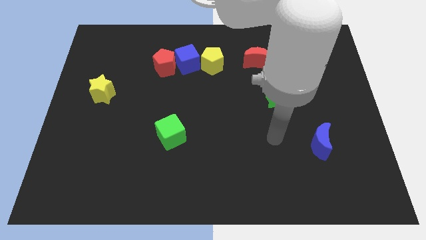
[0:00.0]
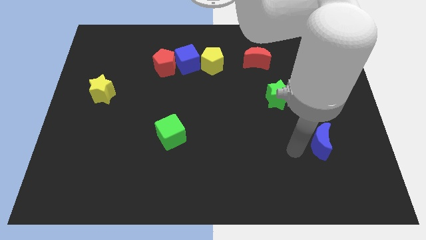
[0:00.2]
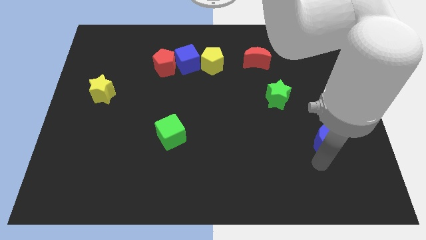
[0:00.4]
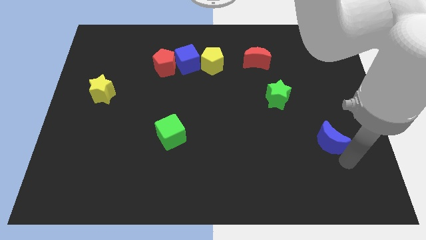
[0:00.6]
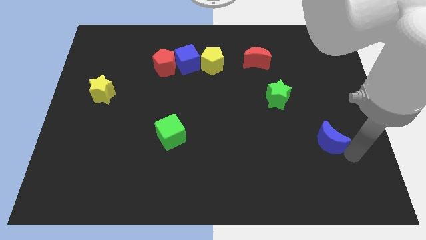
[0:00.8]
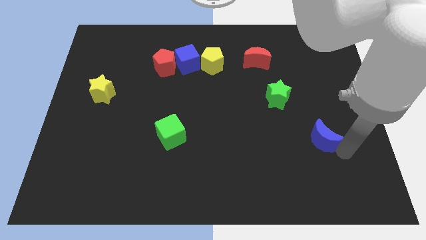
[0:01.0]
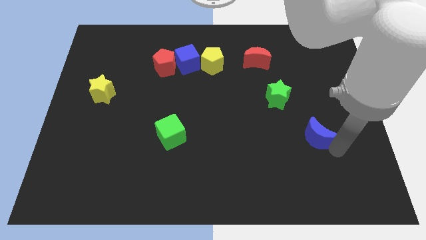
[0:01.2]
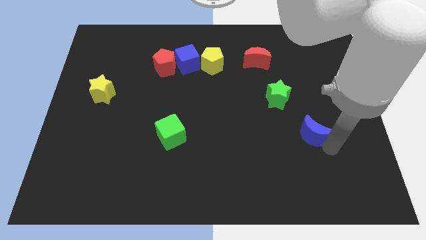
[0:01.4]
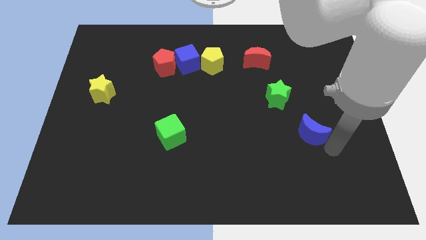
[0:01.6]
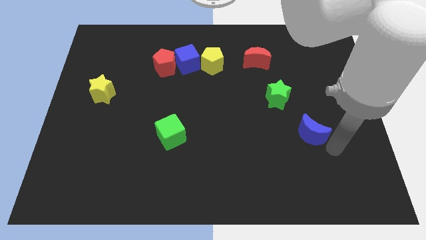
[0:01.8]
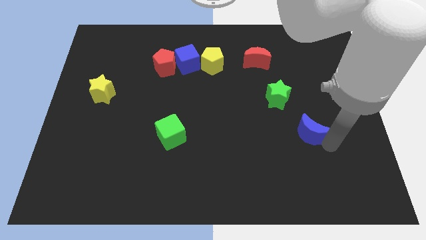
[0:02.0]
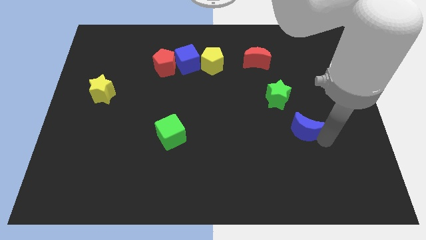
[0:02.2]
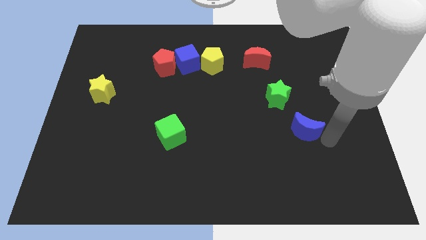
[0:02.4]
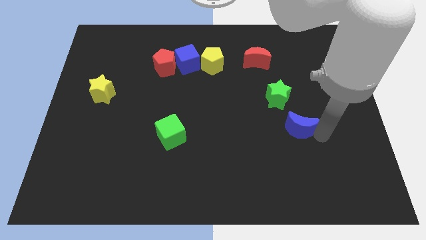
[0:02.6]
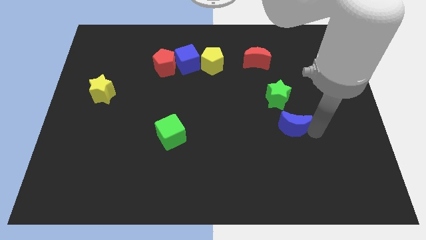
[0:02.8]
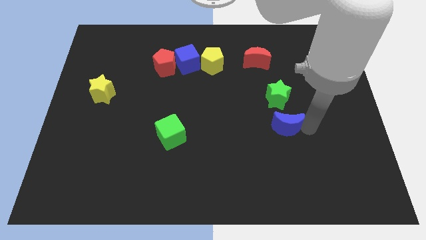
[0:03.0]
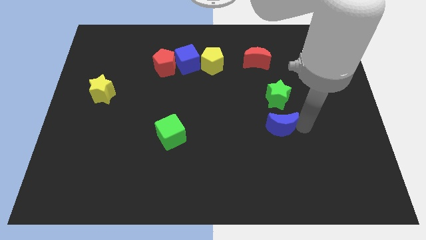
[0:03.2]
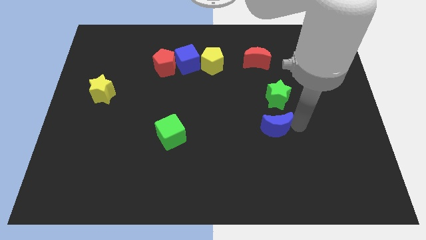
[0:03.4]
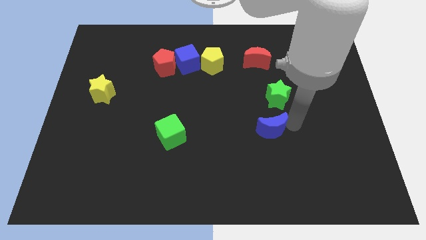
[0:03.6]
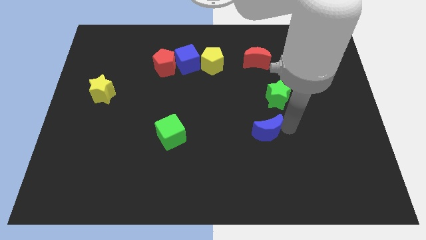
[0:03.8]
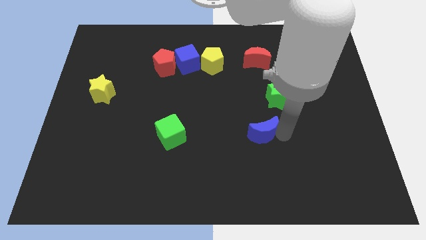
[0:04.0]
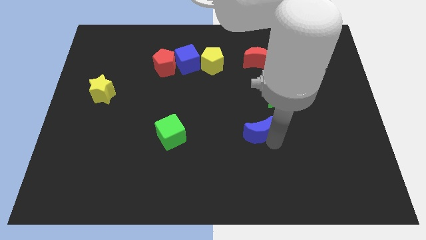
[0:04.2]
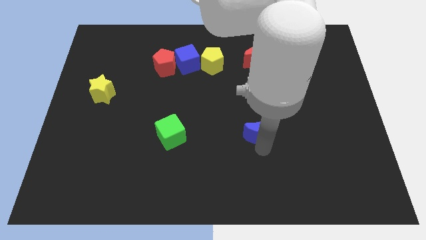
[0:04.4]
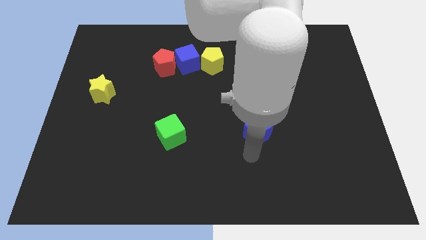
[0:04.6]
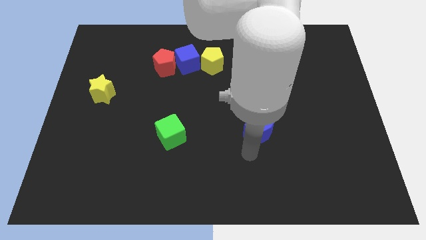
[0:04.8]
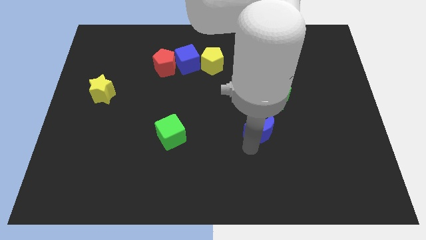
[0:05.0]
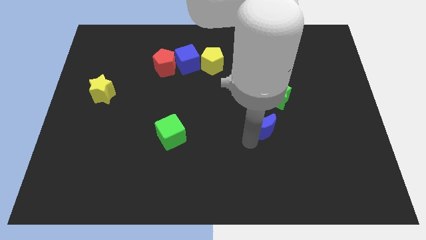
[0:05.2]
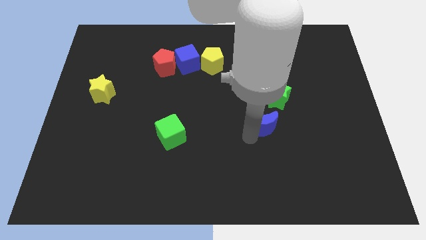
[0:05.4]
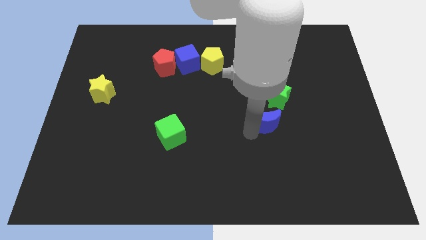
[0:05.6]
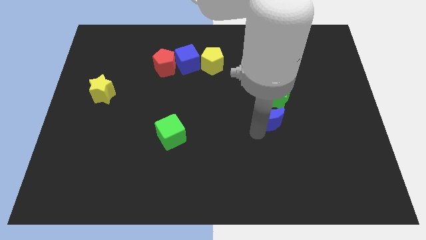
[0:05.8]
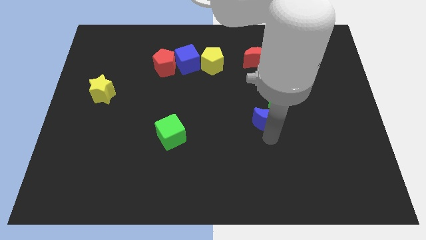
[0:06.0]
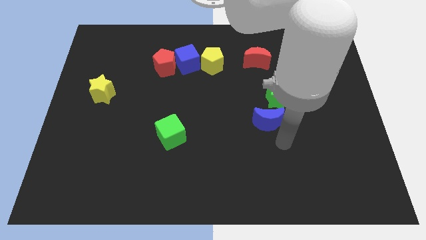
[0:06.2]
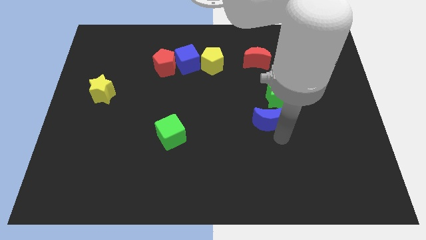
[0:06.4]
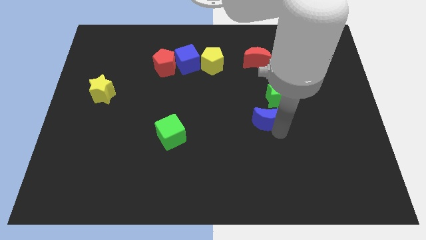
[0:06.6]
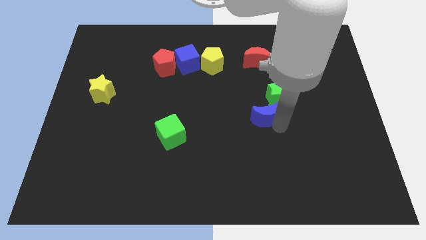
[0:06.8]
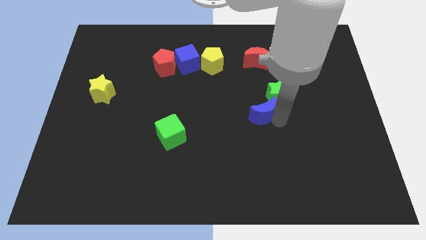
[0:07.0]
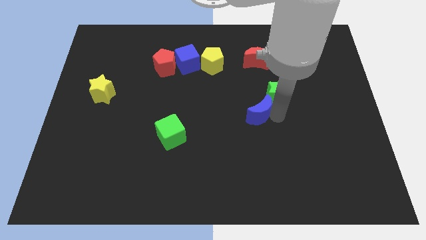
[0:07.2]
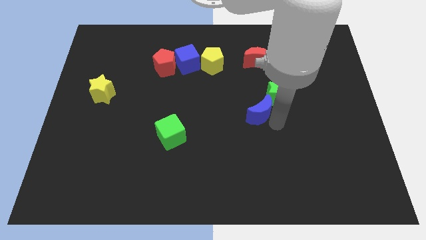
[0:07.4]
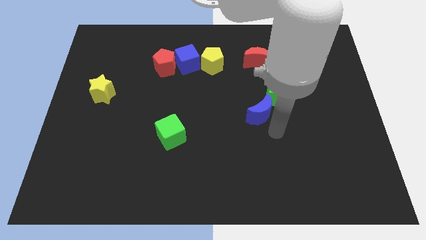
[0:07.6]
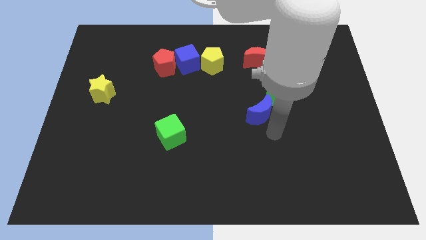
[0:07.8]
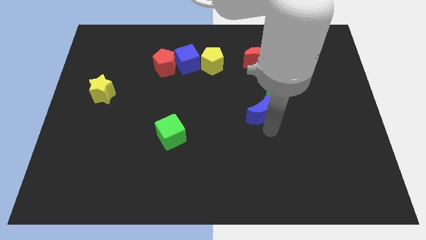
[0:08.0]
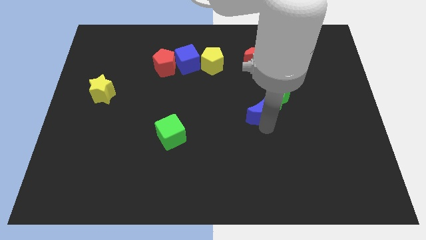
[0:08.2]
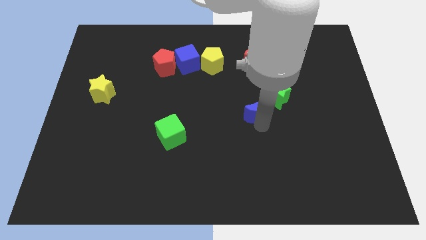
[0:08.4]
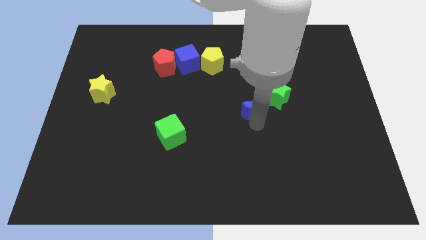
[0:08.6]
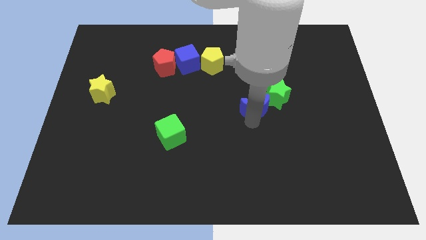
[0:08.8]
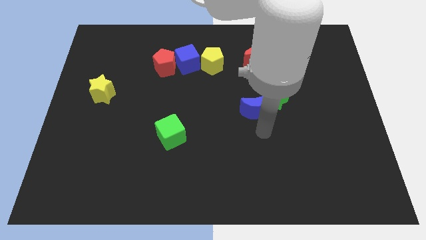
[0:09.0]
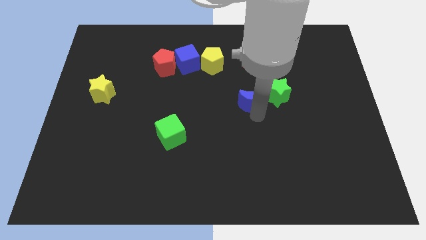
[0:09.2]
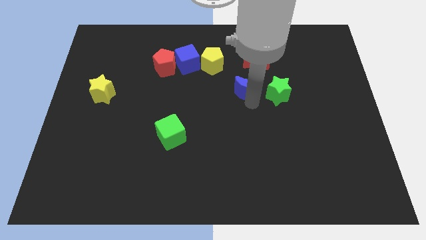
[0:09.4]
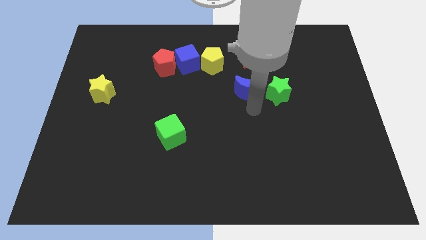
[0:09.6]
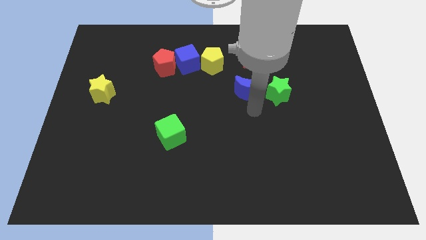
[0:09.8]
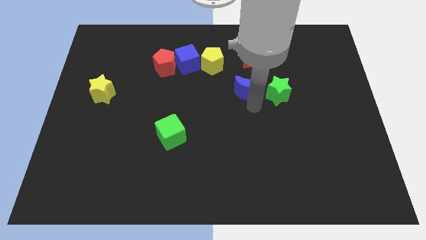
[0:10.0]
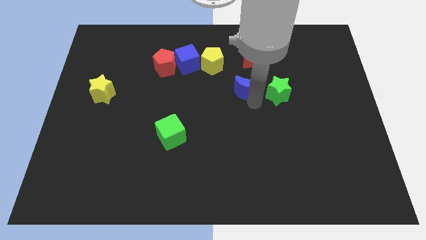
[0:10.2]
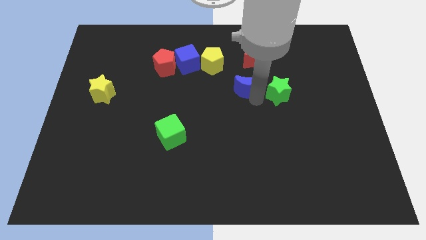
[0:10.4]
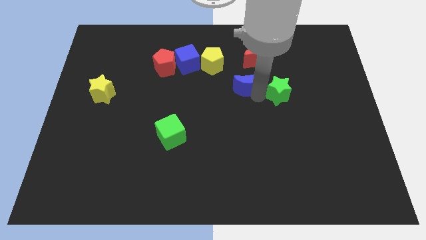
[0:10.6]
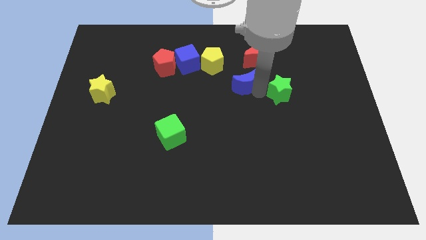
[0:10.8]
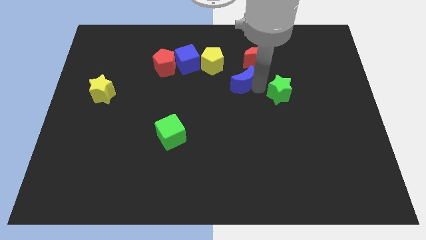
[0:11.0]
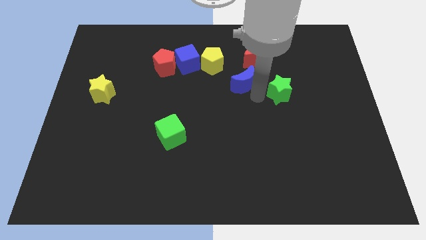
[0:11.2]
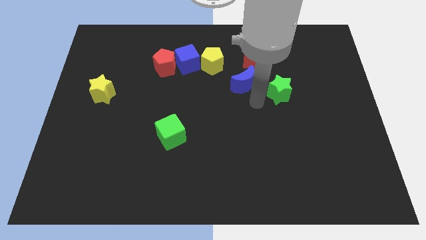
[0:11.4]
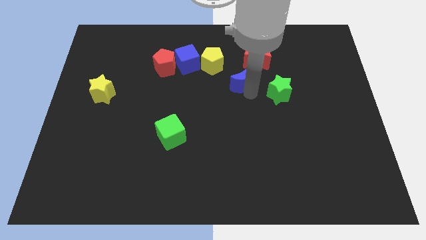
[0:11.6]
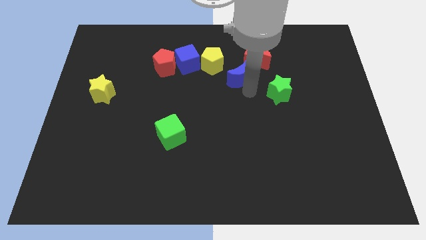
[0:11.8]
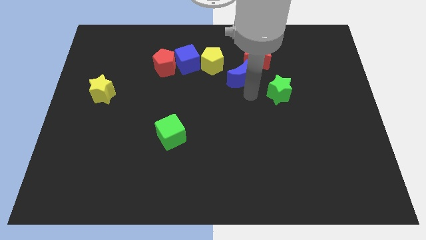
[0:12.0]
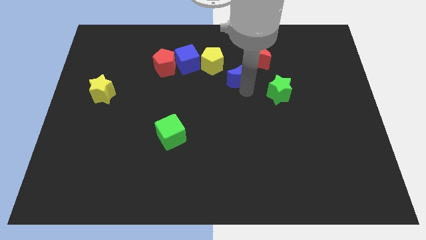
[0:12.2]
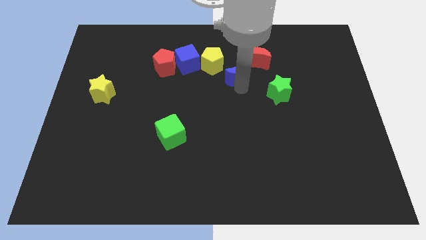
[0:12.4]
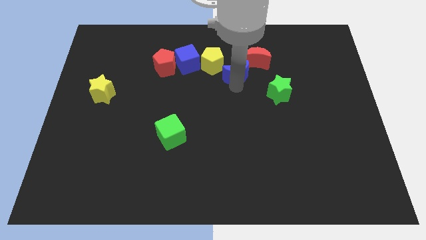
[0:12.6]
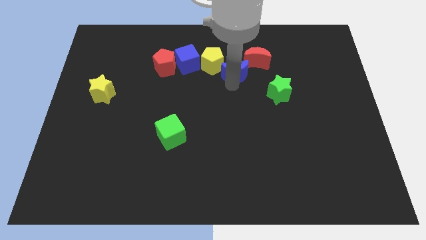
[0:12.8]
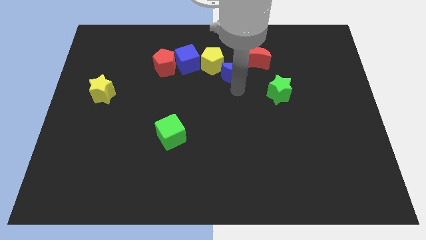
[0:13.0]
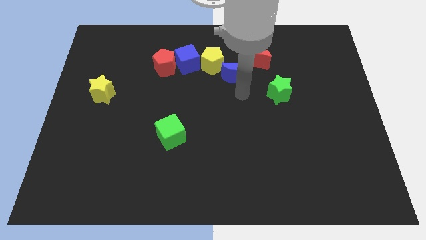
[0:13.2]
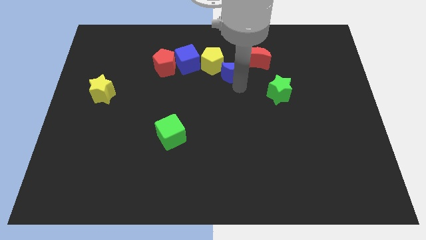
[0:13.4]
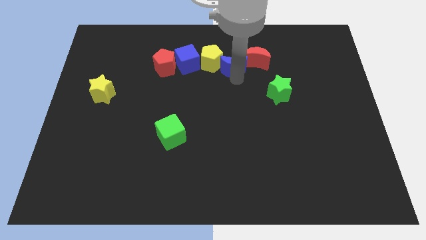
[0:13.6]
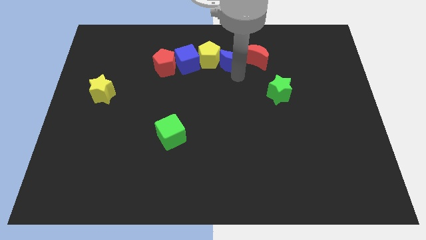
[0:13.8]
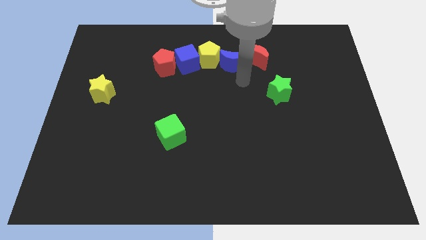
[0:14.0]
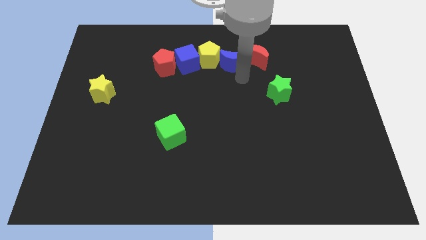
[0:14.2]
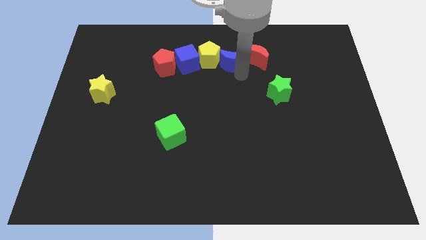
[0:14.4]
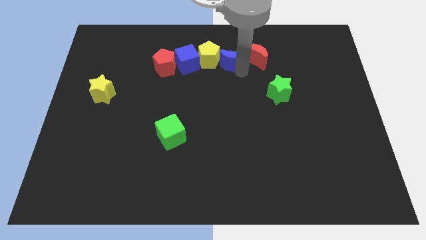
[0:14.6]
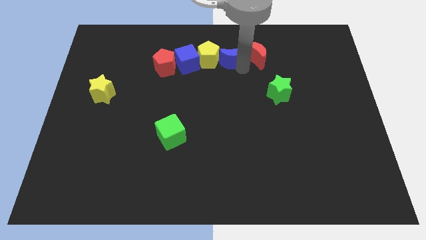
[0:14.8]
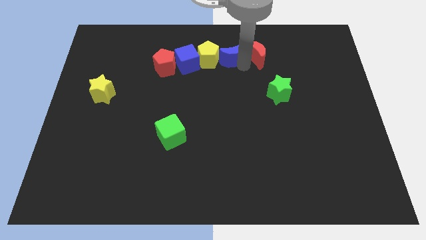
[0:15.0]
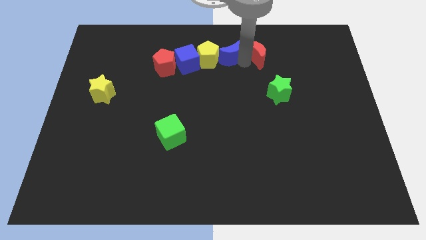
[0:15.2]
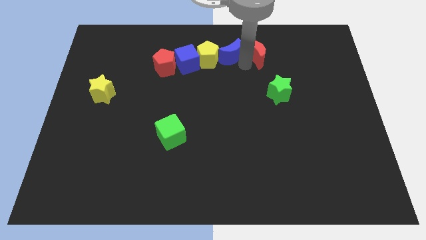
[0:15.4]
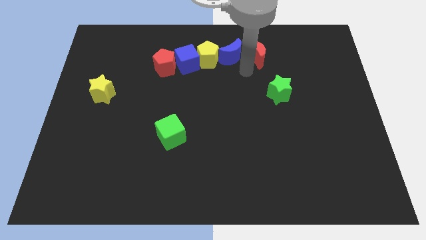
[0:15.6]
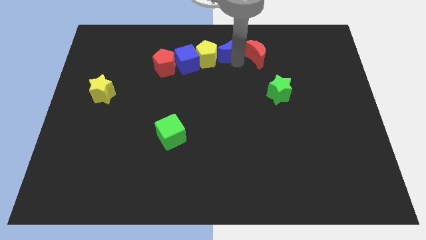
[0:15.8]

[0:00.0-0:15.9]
put the blue moon to the towards your base
